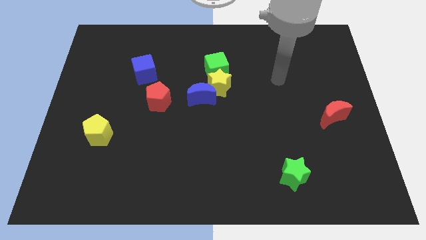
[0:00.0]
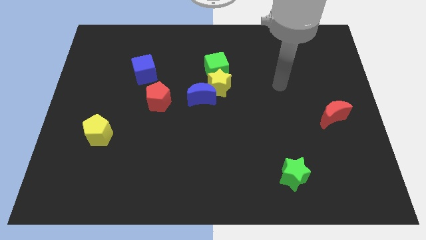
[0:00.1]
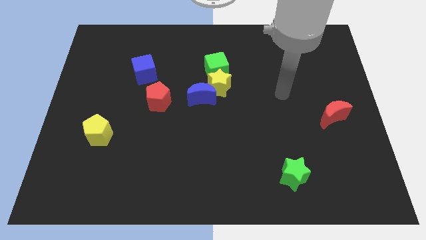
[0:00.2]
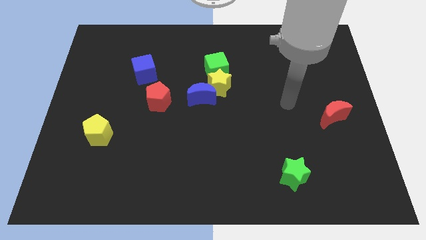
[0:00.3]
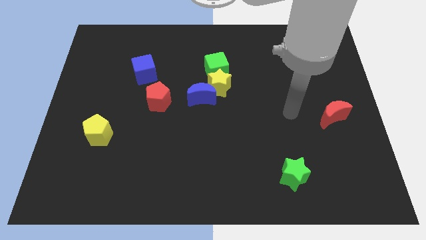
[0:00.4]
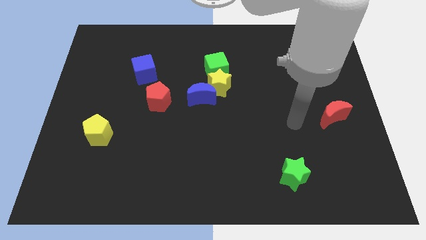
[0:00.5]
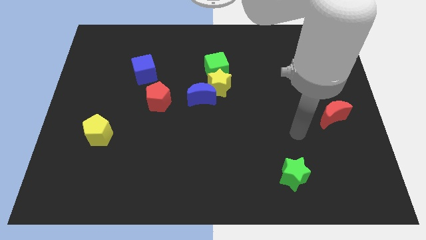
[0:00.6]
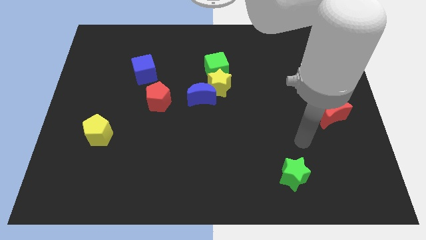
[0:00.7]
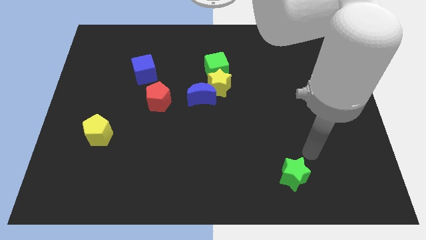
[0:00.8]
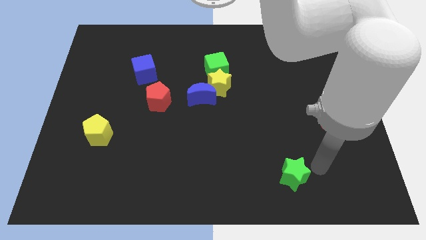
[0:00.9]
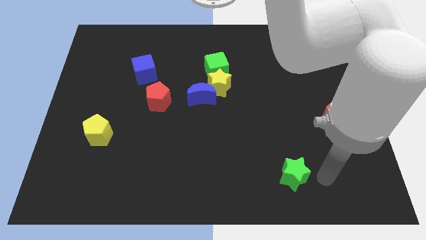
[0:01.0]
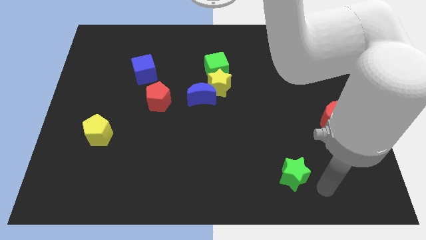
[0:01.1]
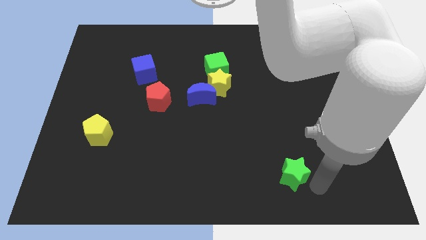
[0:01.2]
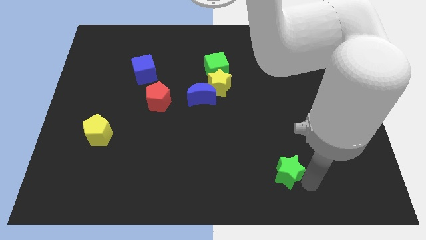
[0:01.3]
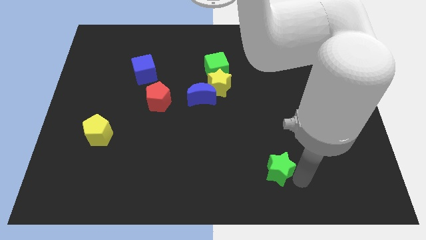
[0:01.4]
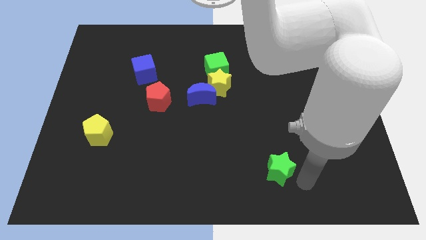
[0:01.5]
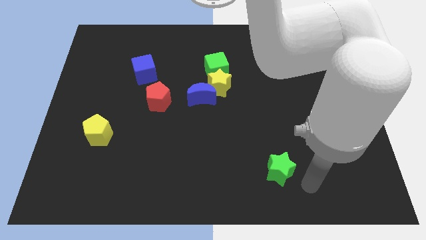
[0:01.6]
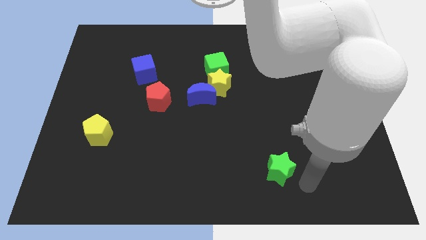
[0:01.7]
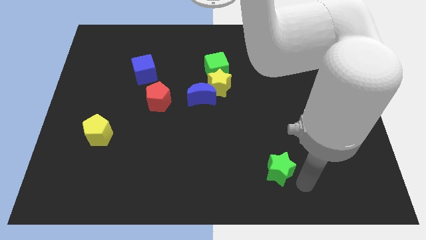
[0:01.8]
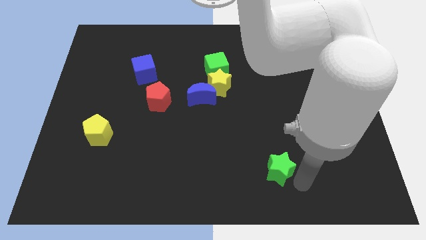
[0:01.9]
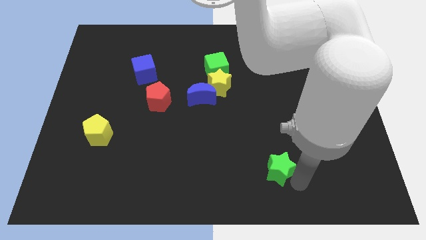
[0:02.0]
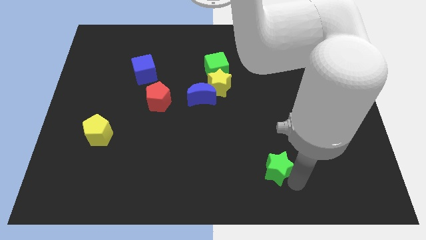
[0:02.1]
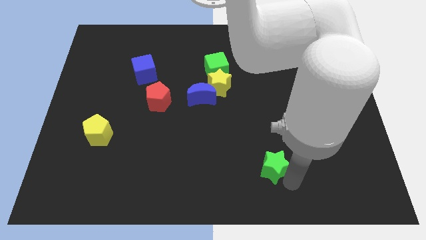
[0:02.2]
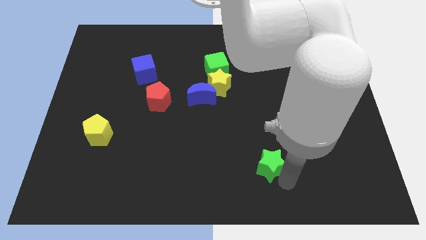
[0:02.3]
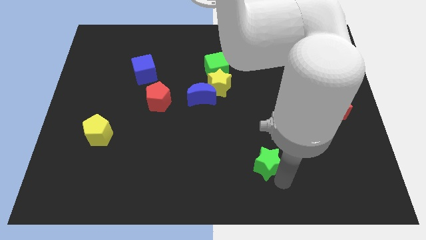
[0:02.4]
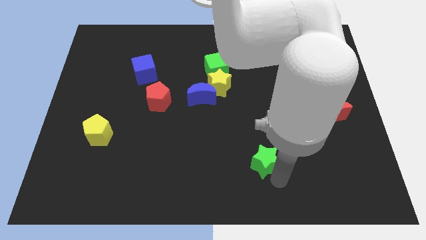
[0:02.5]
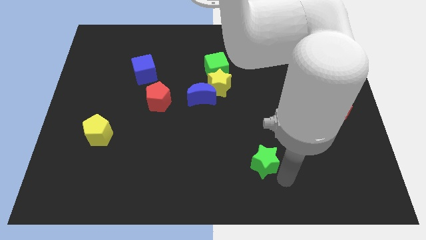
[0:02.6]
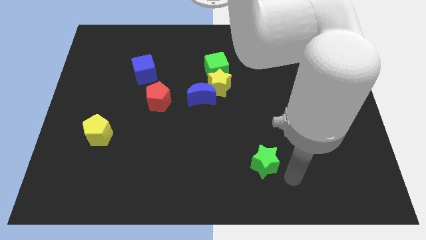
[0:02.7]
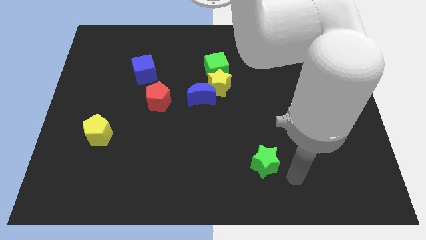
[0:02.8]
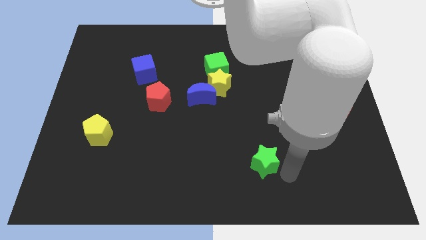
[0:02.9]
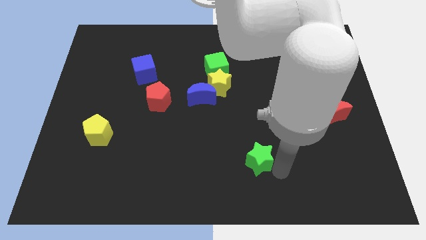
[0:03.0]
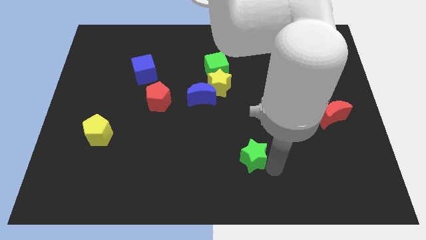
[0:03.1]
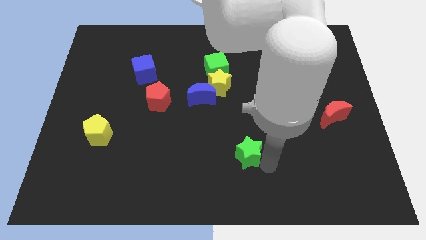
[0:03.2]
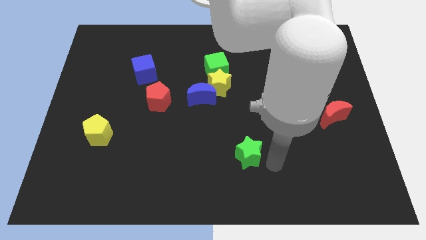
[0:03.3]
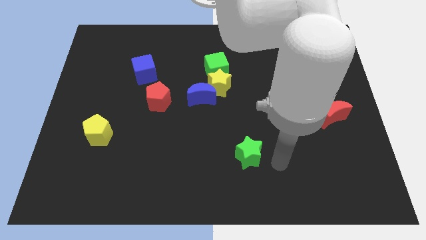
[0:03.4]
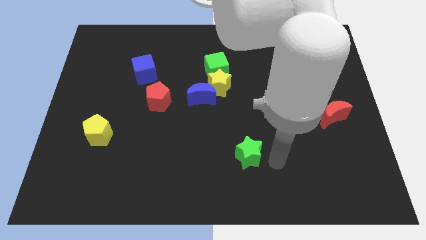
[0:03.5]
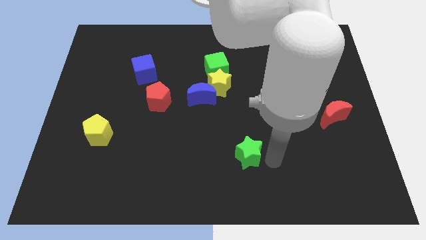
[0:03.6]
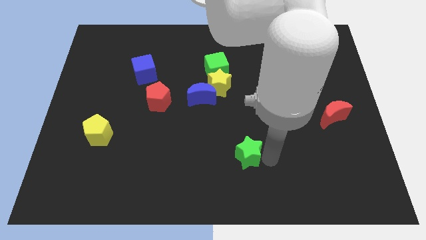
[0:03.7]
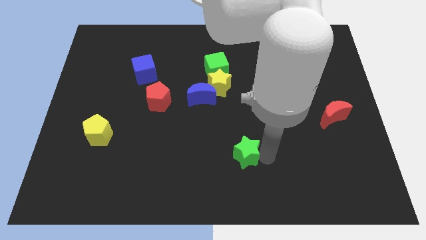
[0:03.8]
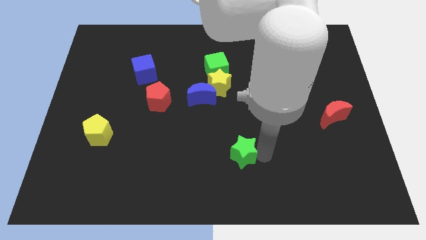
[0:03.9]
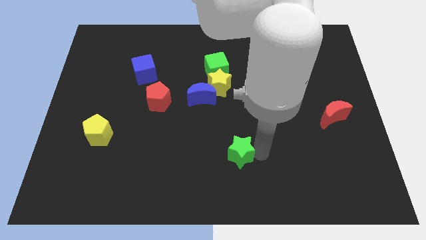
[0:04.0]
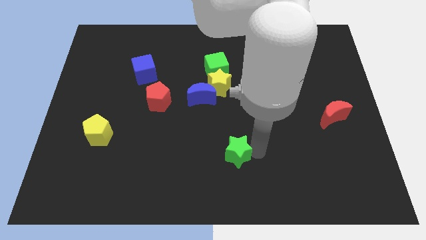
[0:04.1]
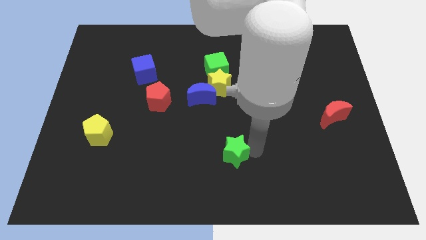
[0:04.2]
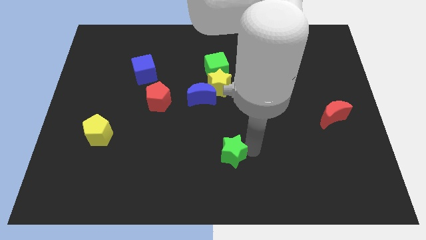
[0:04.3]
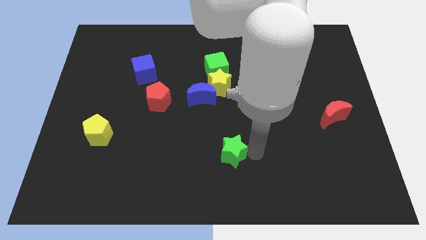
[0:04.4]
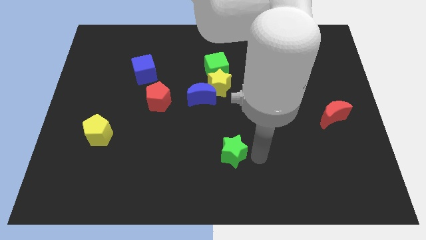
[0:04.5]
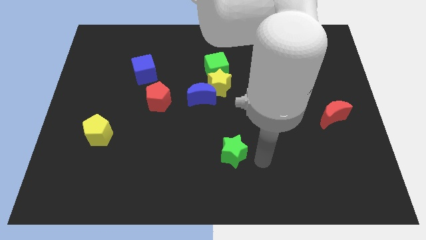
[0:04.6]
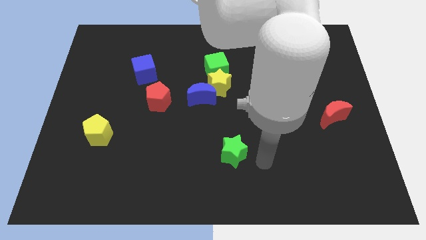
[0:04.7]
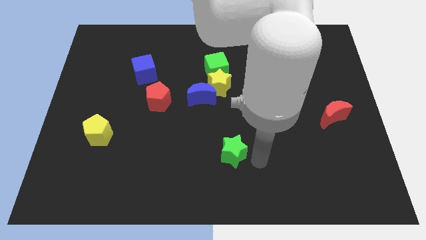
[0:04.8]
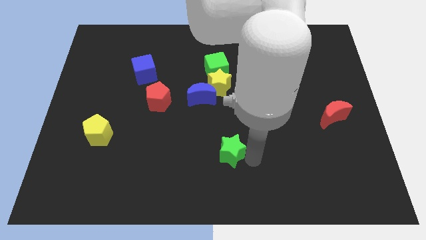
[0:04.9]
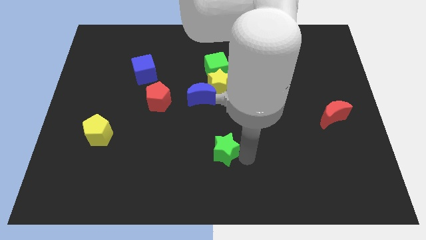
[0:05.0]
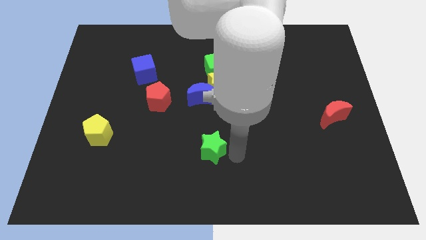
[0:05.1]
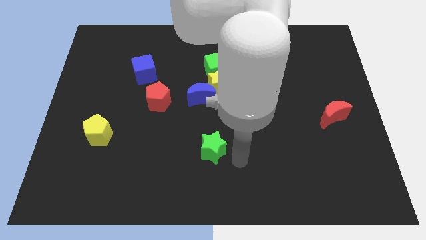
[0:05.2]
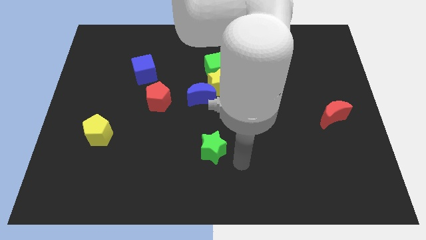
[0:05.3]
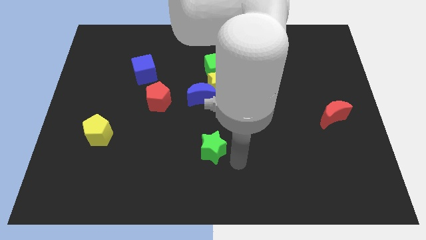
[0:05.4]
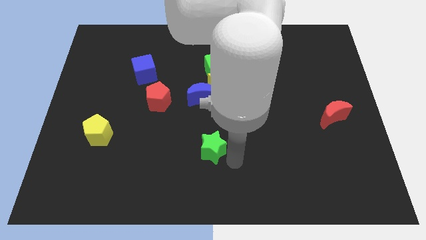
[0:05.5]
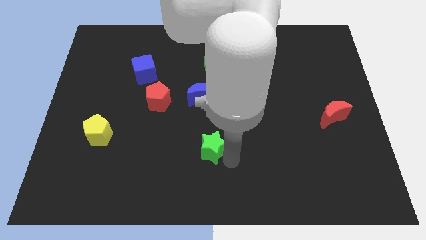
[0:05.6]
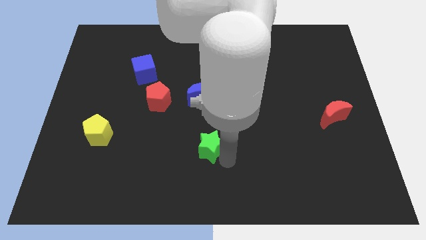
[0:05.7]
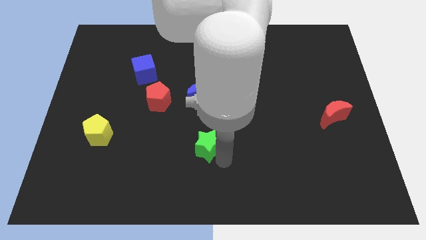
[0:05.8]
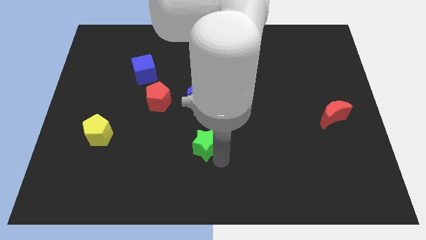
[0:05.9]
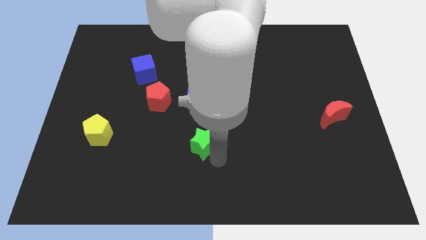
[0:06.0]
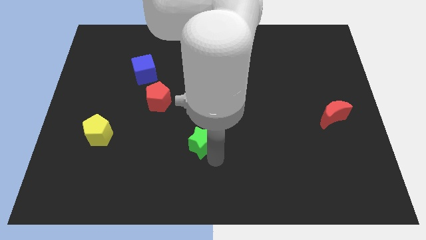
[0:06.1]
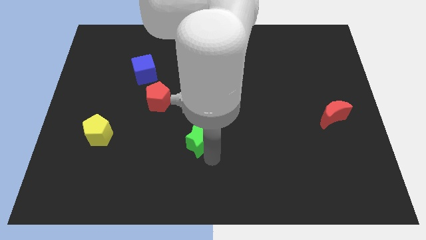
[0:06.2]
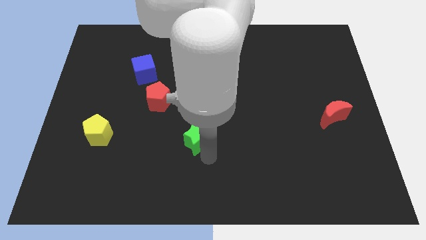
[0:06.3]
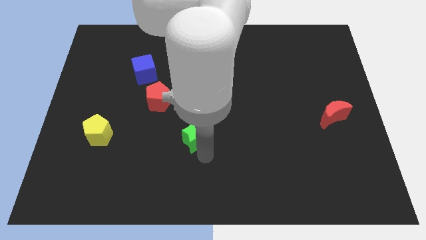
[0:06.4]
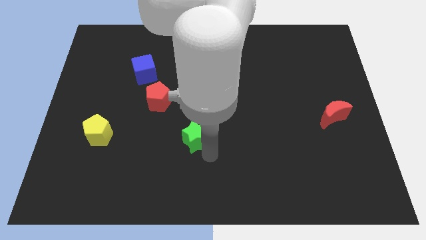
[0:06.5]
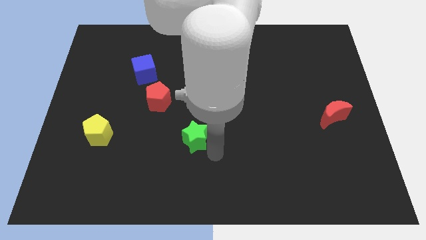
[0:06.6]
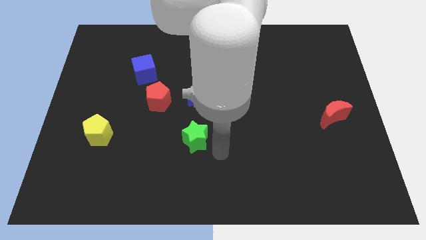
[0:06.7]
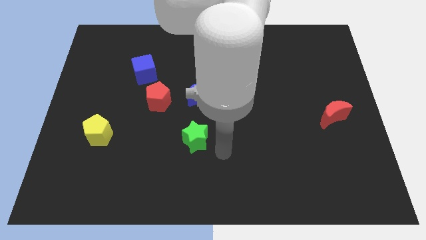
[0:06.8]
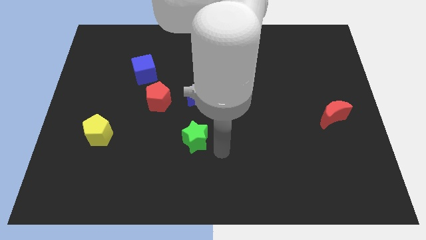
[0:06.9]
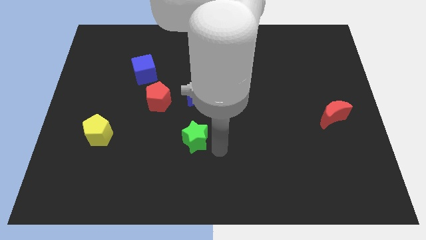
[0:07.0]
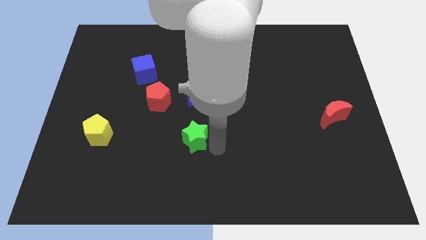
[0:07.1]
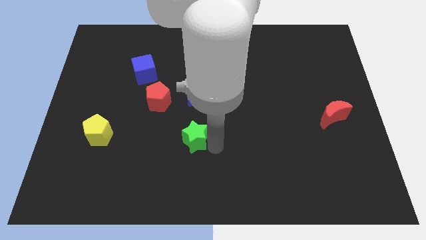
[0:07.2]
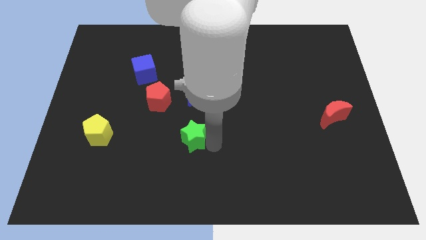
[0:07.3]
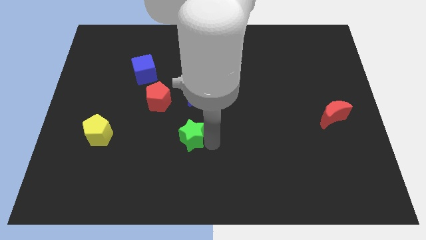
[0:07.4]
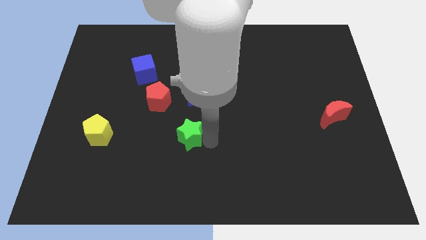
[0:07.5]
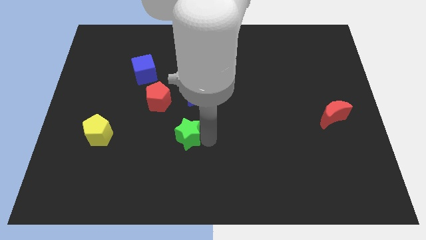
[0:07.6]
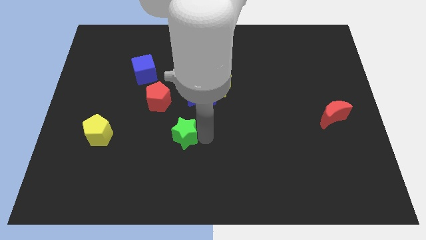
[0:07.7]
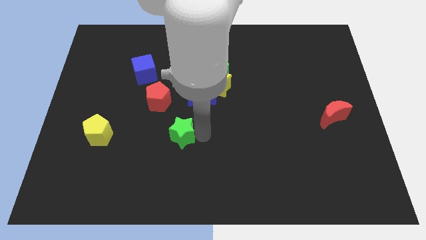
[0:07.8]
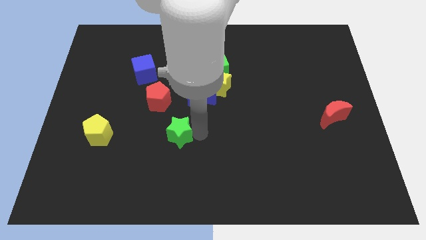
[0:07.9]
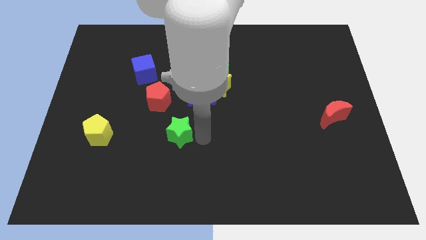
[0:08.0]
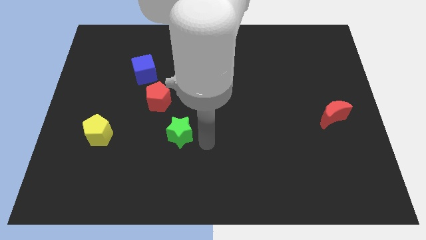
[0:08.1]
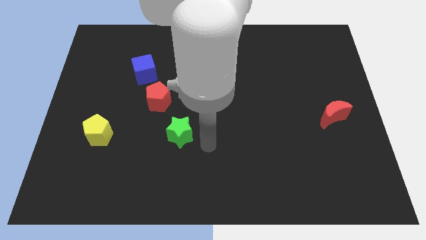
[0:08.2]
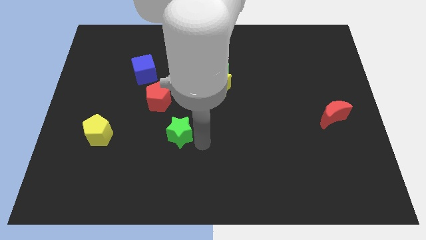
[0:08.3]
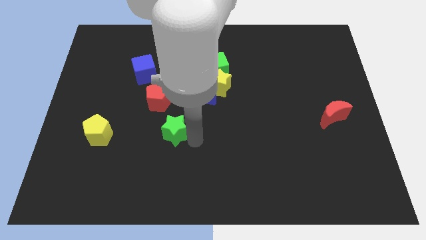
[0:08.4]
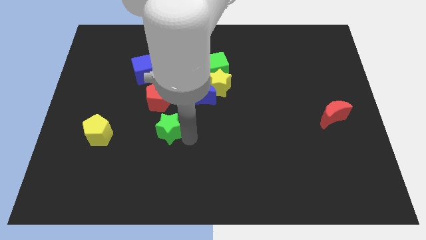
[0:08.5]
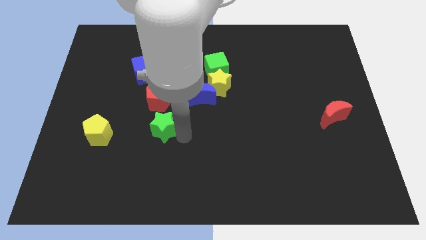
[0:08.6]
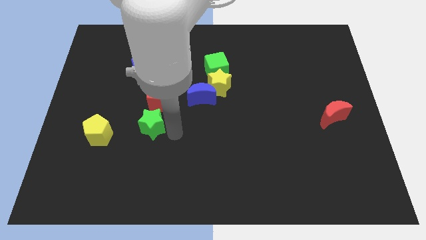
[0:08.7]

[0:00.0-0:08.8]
move the green star to the bottom left of the red pentagon
